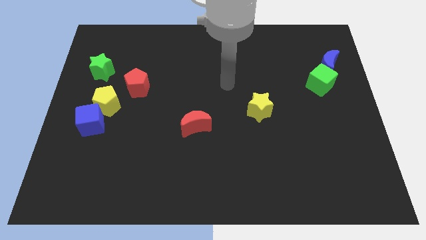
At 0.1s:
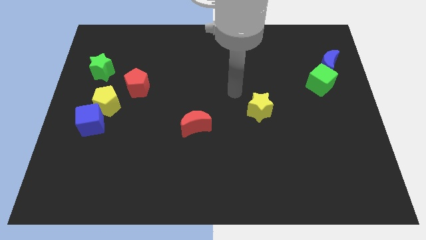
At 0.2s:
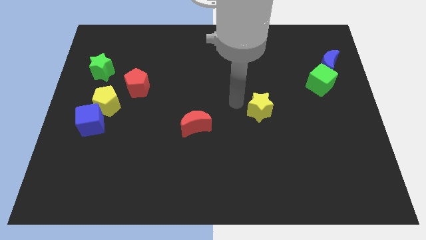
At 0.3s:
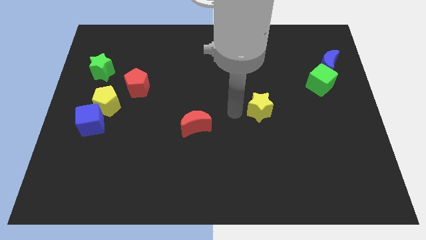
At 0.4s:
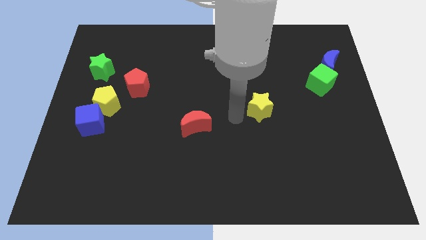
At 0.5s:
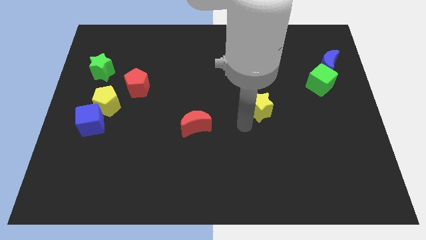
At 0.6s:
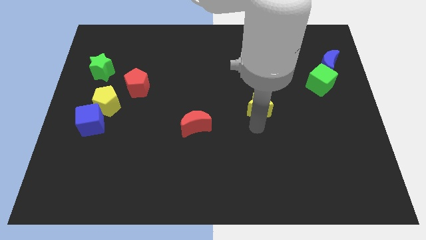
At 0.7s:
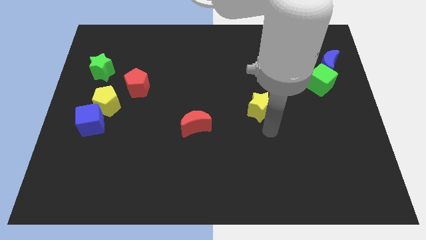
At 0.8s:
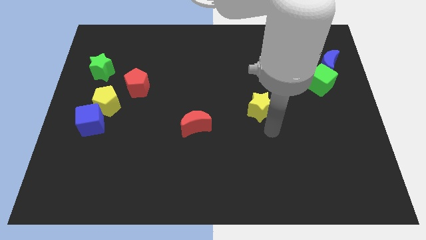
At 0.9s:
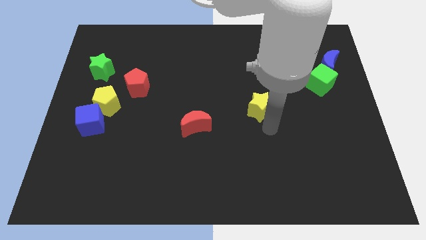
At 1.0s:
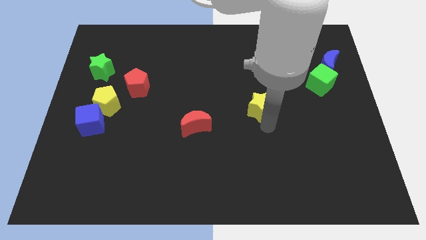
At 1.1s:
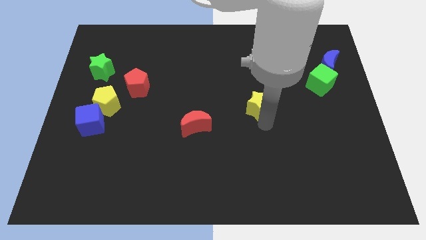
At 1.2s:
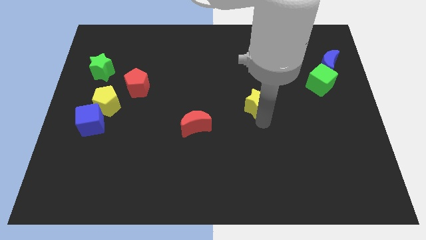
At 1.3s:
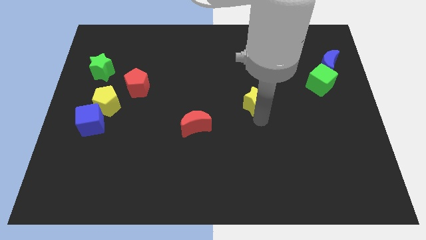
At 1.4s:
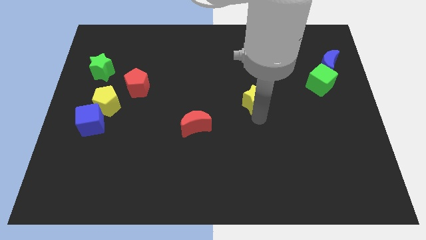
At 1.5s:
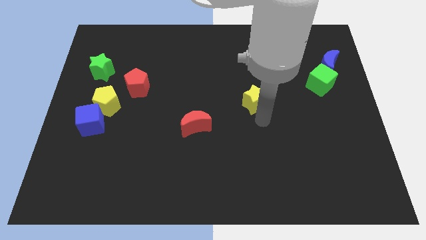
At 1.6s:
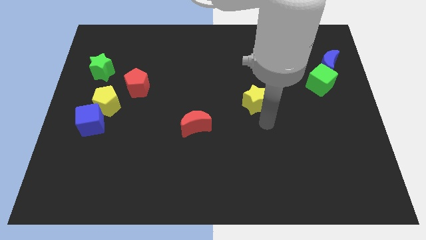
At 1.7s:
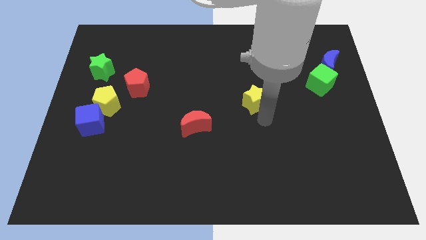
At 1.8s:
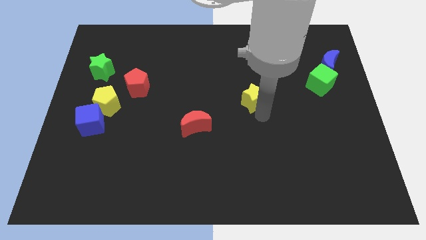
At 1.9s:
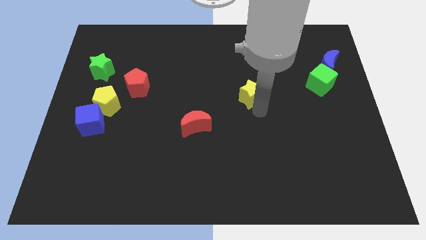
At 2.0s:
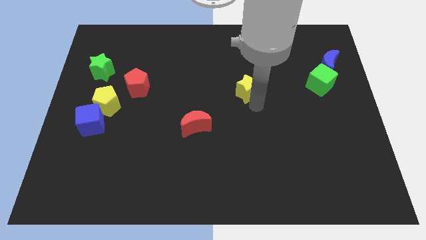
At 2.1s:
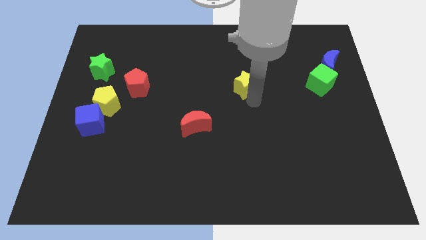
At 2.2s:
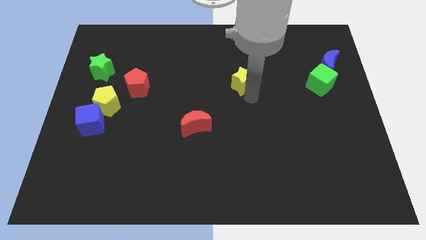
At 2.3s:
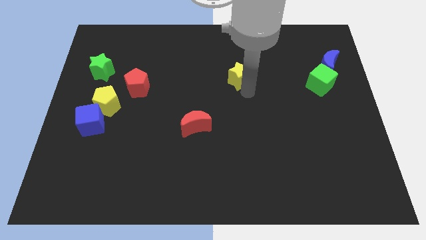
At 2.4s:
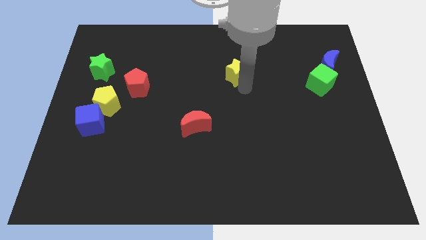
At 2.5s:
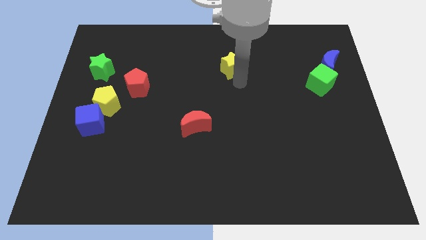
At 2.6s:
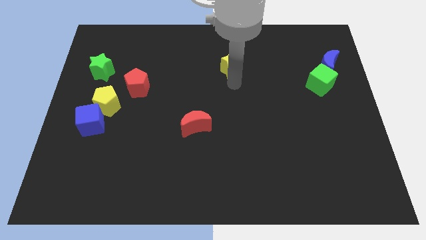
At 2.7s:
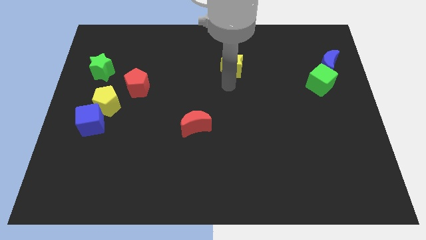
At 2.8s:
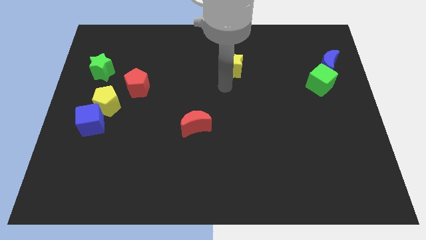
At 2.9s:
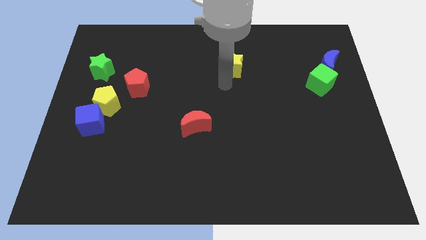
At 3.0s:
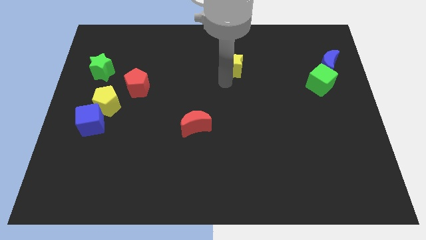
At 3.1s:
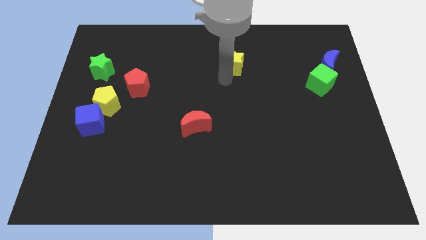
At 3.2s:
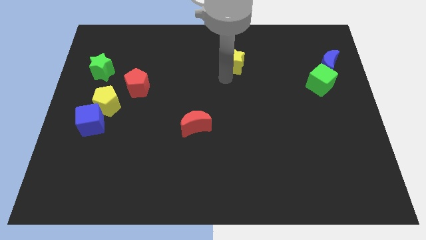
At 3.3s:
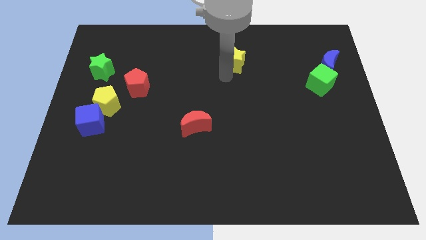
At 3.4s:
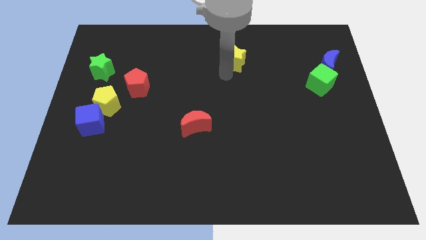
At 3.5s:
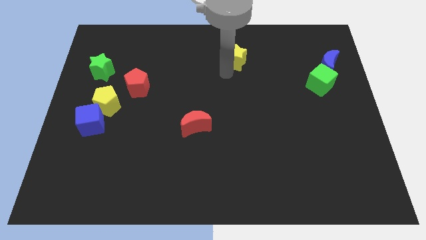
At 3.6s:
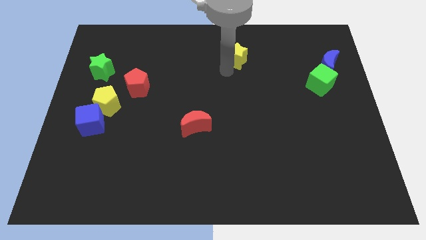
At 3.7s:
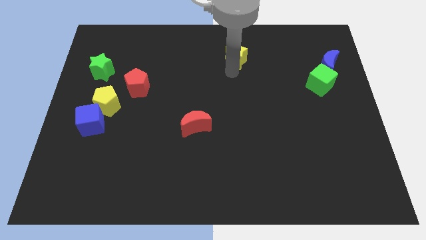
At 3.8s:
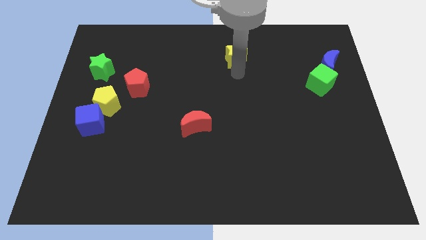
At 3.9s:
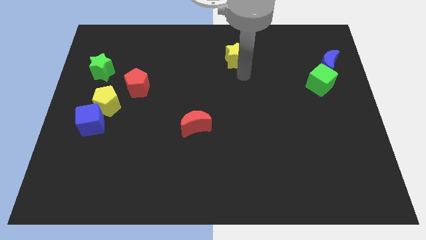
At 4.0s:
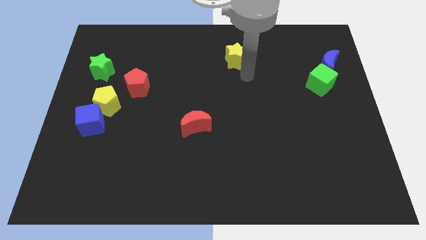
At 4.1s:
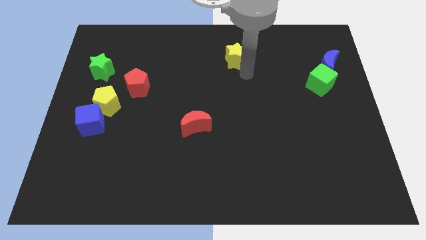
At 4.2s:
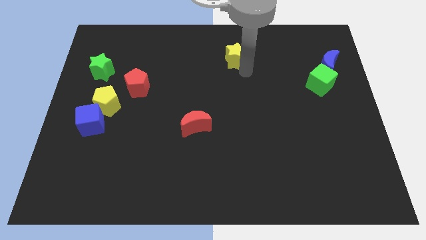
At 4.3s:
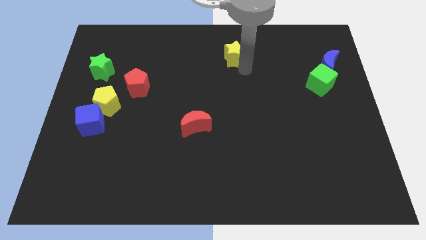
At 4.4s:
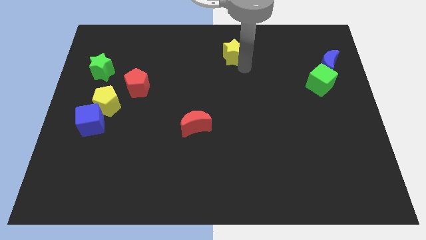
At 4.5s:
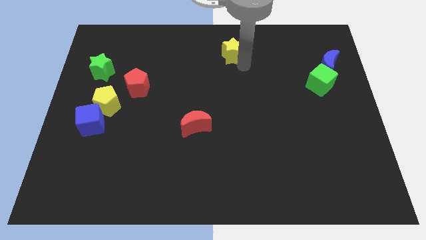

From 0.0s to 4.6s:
put the yellow star to the towards your base

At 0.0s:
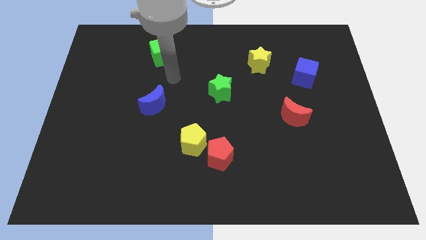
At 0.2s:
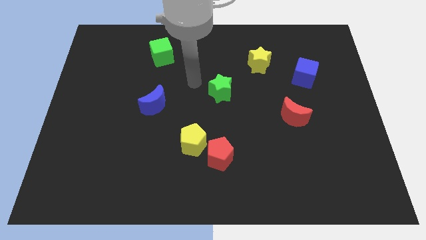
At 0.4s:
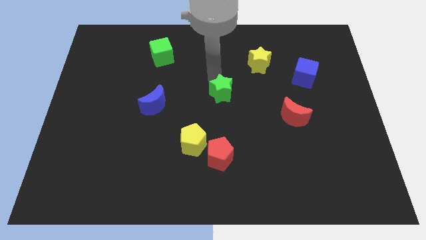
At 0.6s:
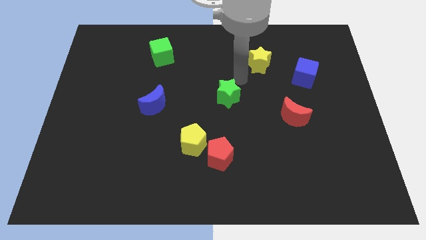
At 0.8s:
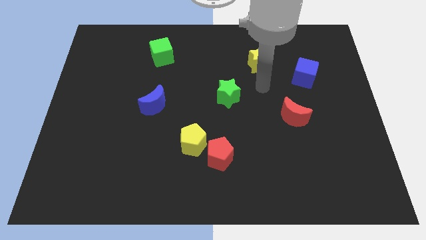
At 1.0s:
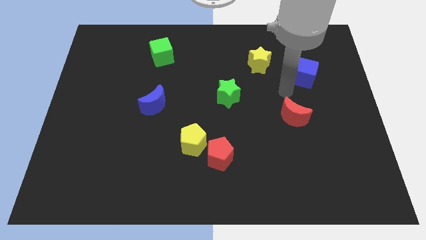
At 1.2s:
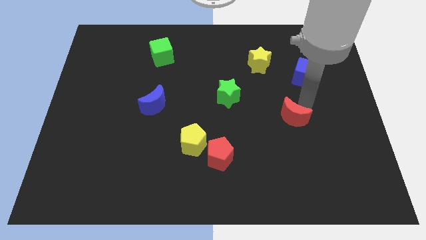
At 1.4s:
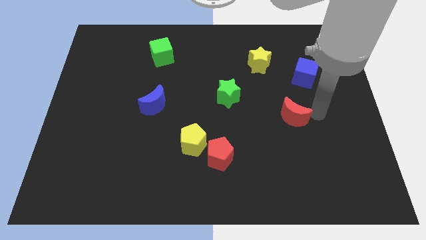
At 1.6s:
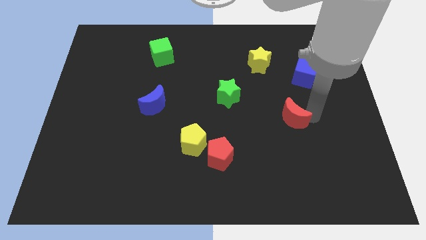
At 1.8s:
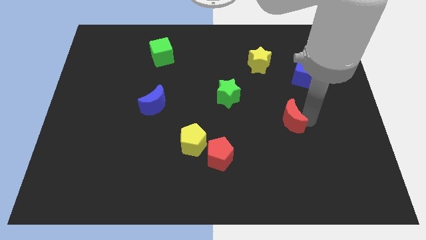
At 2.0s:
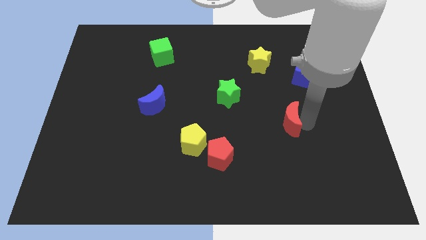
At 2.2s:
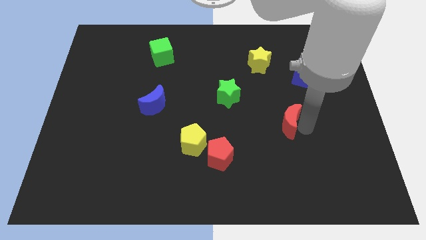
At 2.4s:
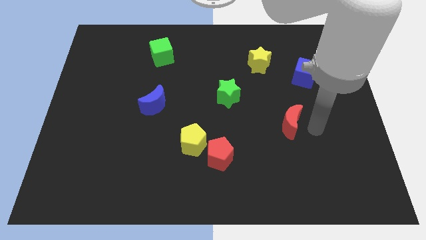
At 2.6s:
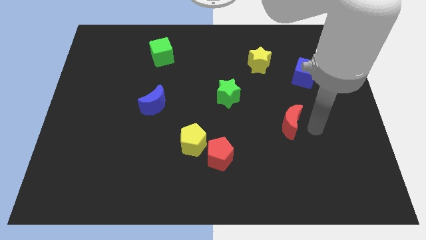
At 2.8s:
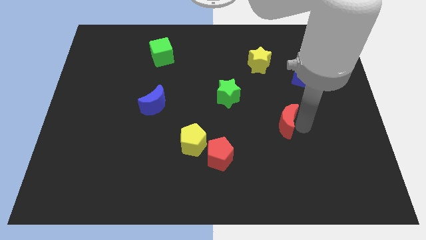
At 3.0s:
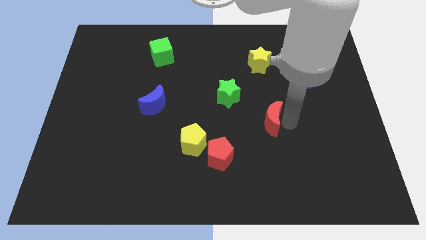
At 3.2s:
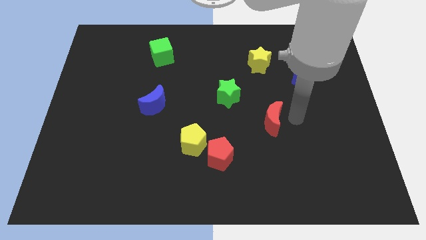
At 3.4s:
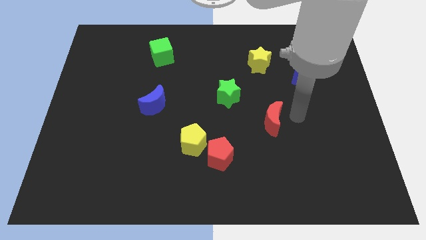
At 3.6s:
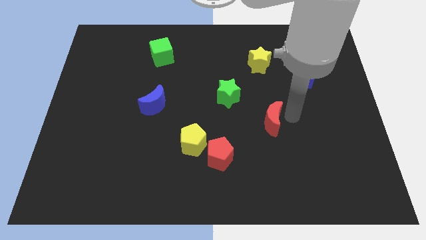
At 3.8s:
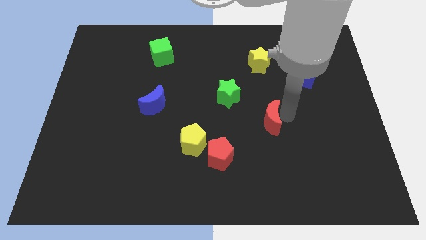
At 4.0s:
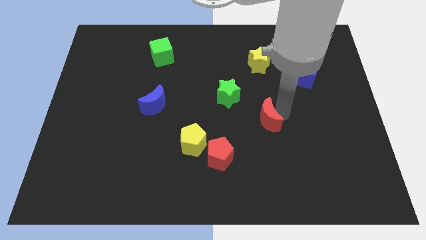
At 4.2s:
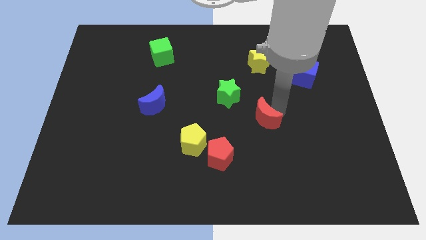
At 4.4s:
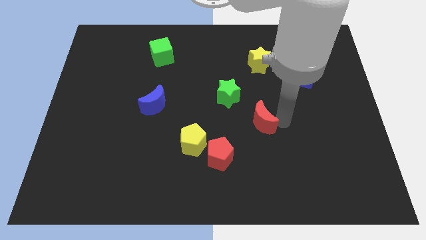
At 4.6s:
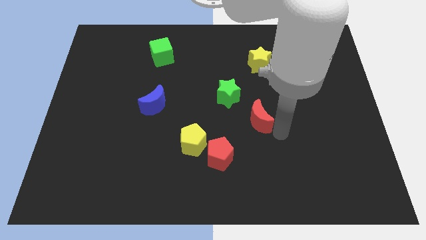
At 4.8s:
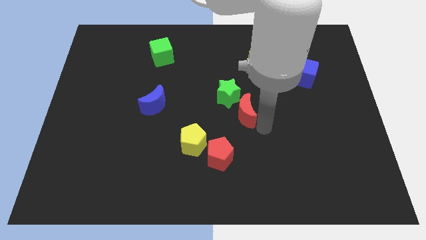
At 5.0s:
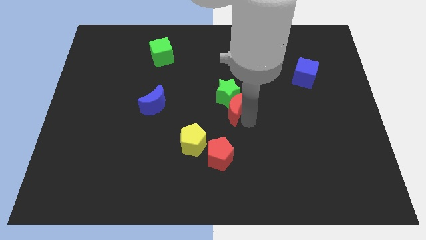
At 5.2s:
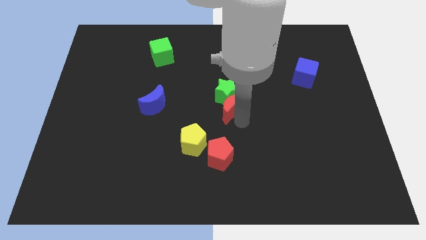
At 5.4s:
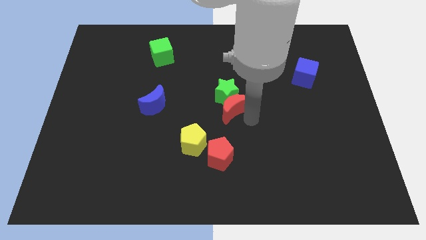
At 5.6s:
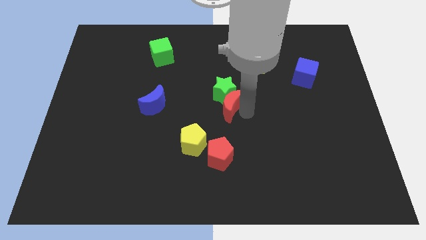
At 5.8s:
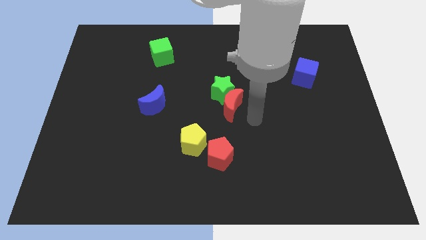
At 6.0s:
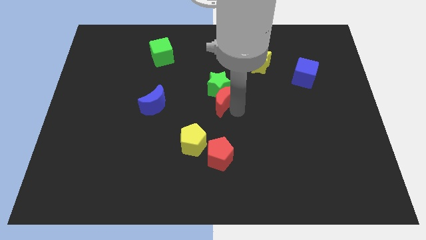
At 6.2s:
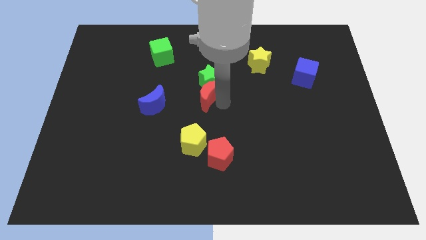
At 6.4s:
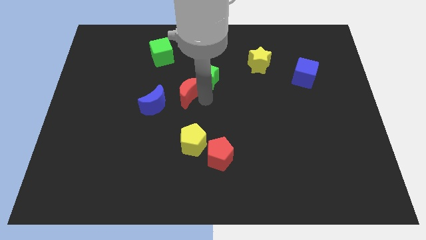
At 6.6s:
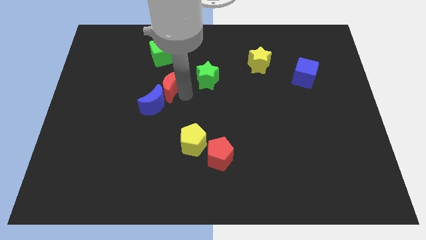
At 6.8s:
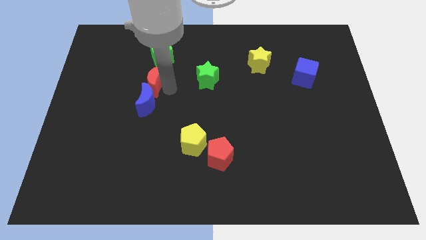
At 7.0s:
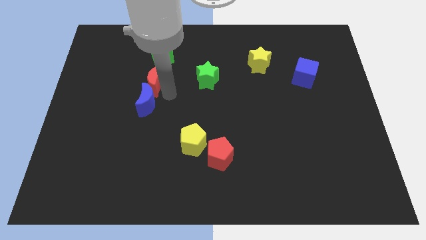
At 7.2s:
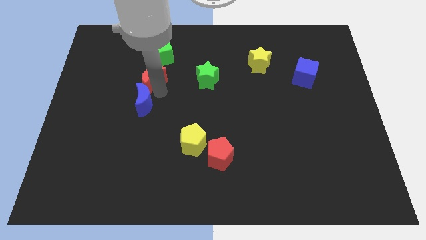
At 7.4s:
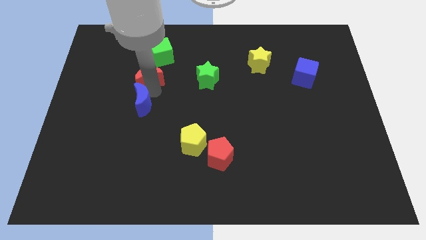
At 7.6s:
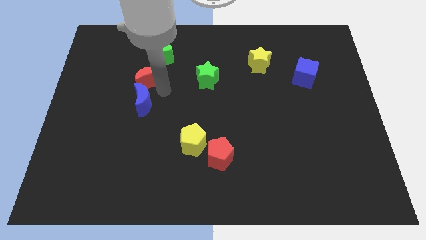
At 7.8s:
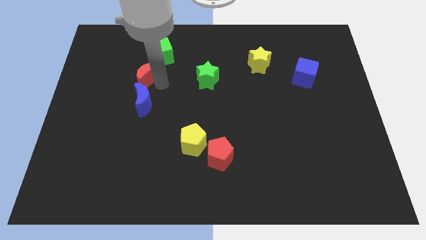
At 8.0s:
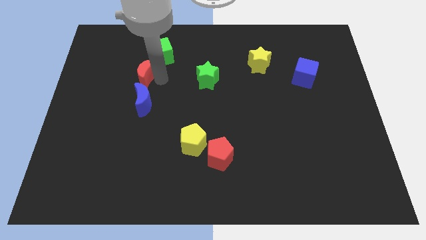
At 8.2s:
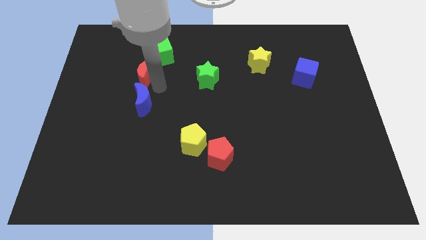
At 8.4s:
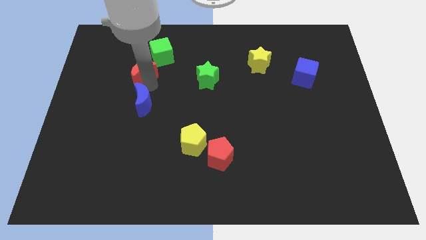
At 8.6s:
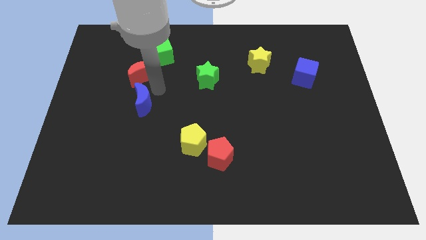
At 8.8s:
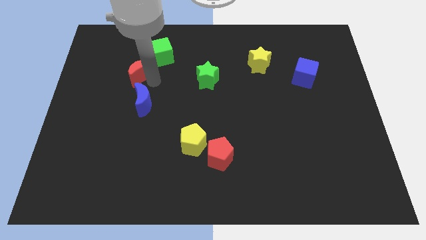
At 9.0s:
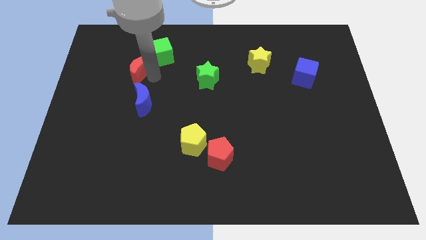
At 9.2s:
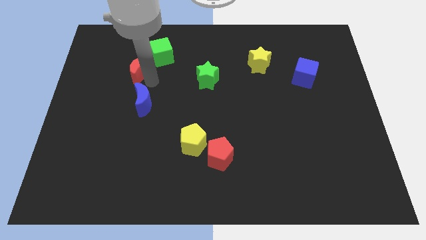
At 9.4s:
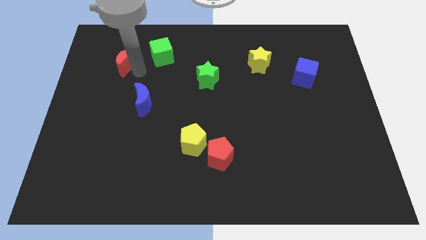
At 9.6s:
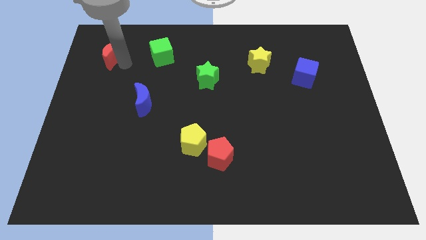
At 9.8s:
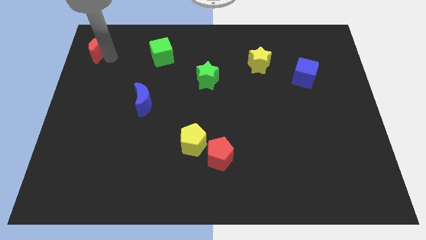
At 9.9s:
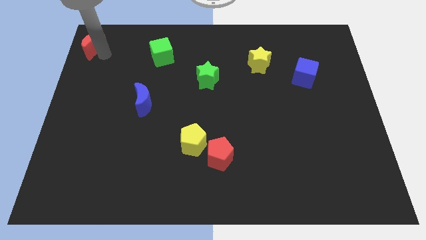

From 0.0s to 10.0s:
put the red moon to the upper left corner
